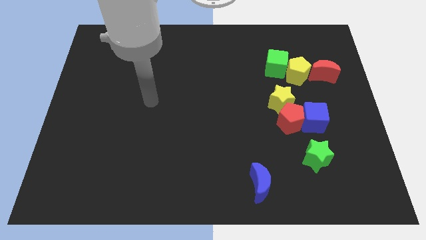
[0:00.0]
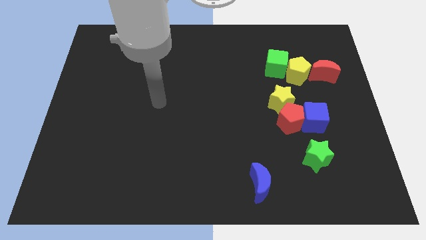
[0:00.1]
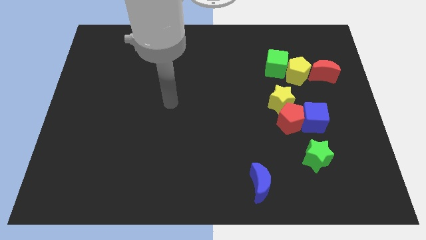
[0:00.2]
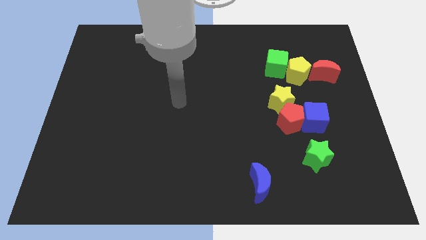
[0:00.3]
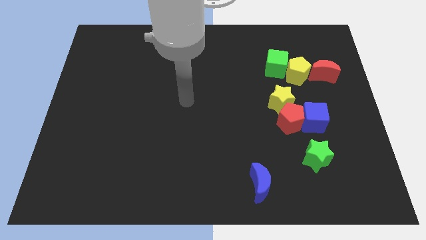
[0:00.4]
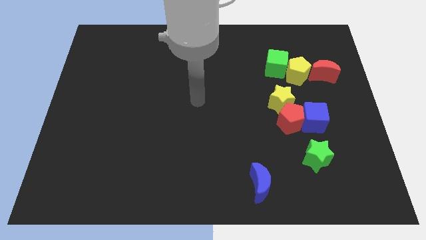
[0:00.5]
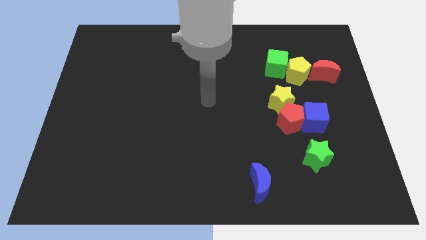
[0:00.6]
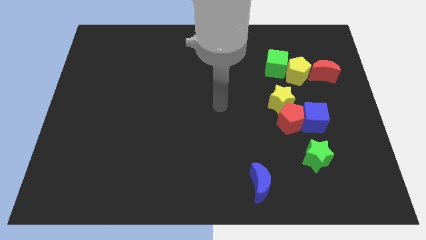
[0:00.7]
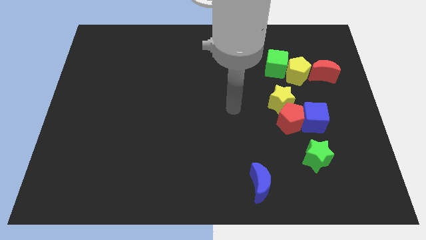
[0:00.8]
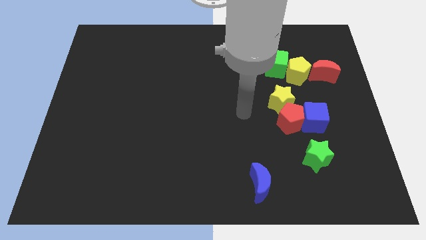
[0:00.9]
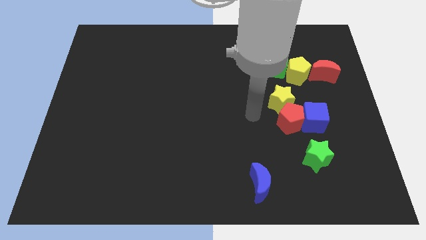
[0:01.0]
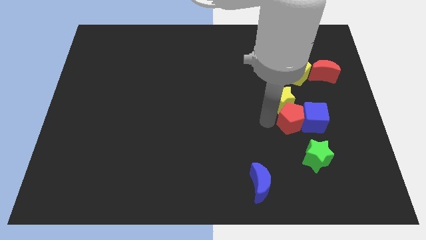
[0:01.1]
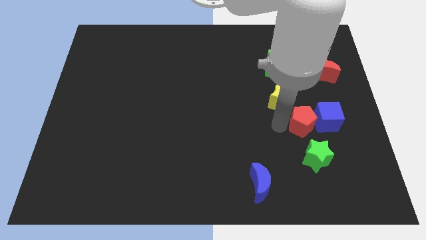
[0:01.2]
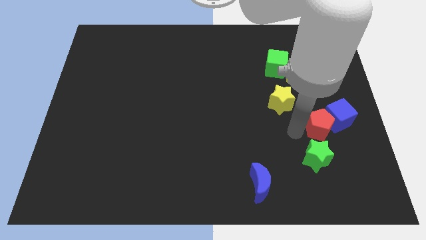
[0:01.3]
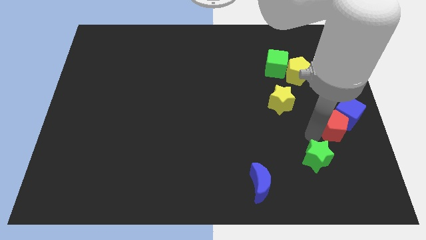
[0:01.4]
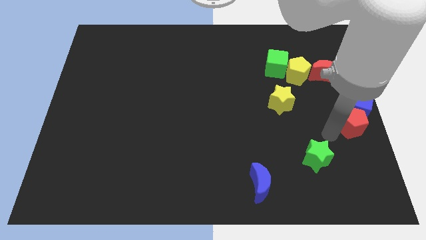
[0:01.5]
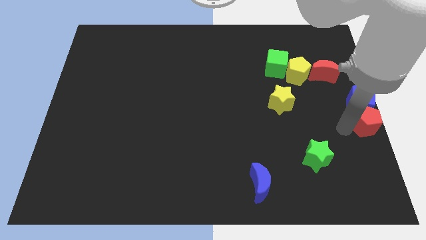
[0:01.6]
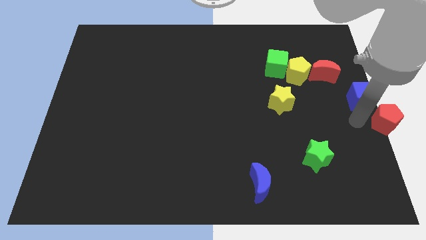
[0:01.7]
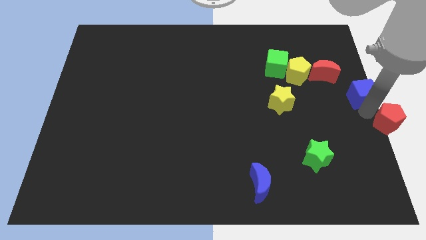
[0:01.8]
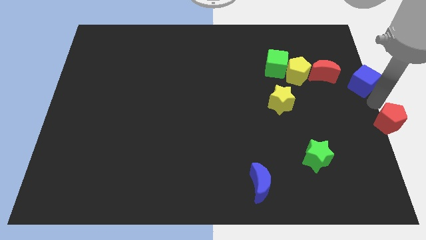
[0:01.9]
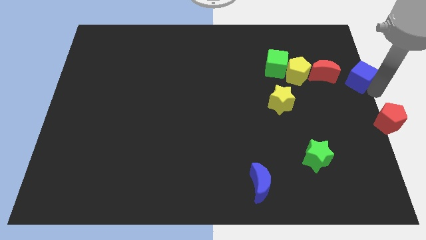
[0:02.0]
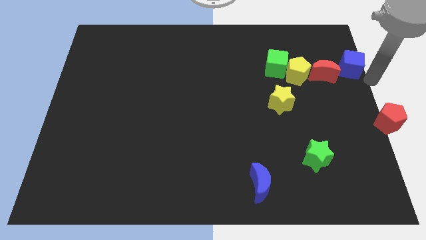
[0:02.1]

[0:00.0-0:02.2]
push the blue cube up a little

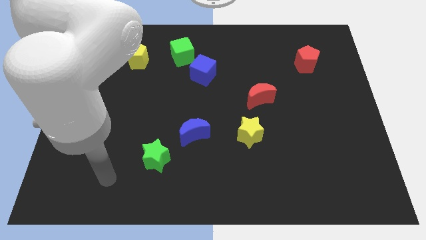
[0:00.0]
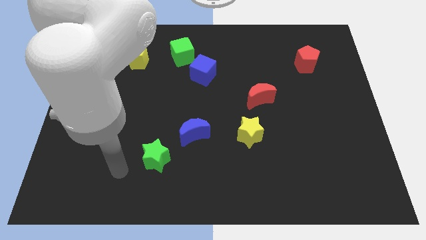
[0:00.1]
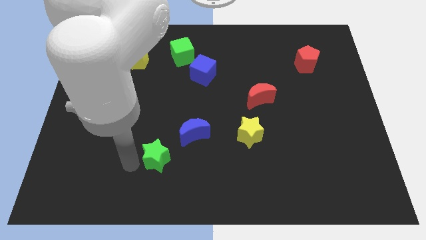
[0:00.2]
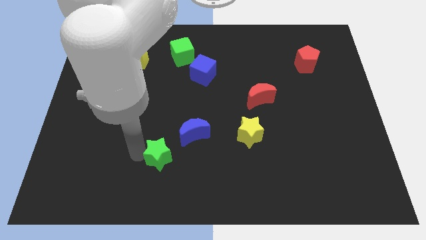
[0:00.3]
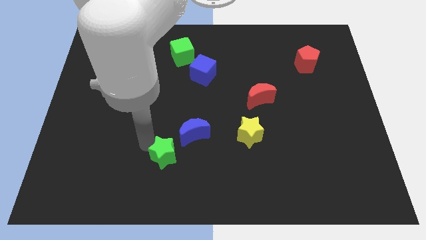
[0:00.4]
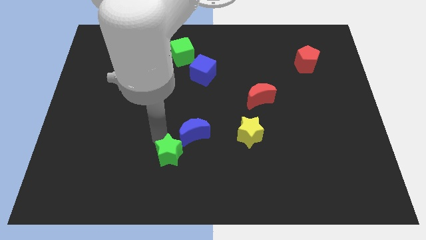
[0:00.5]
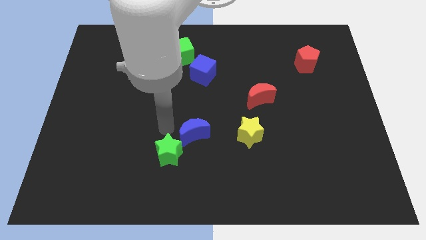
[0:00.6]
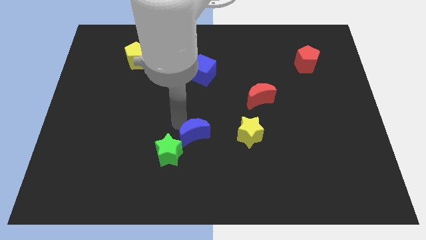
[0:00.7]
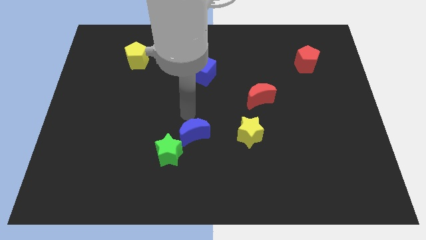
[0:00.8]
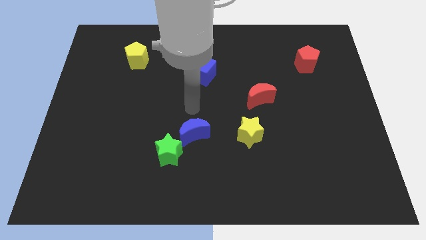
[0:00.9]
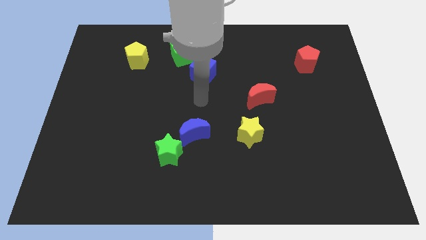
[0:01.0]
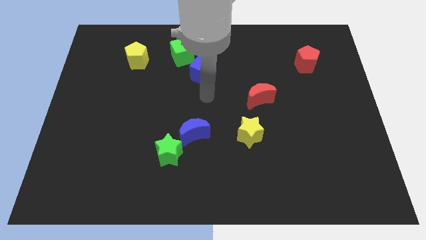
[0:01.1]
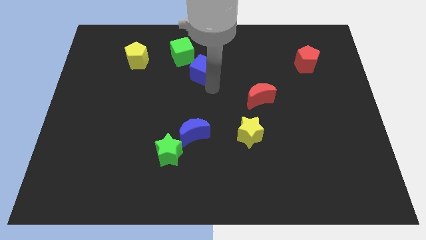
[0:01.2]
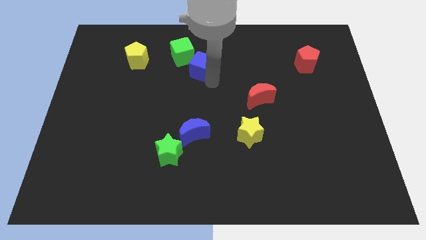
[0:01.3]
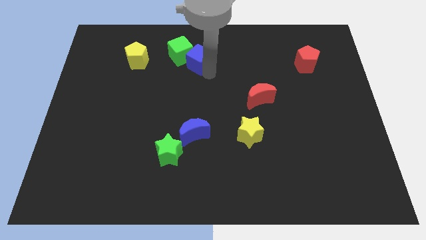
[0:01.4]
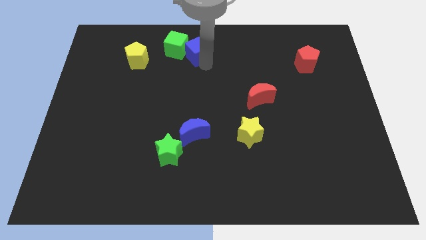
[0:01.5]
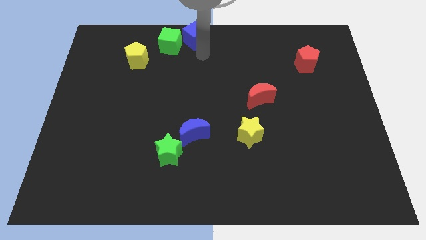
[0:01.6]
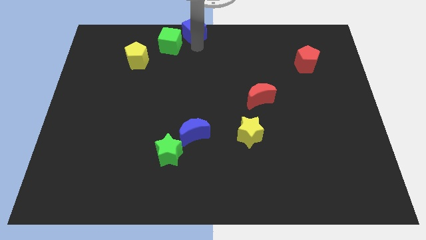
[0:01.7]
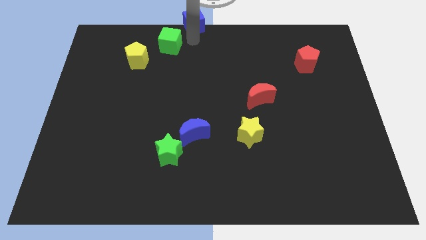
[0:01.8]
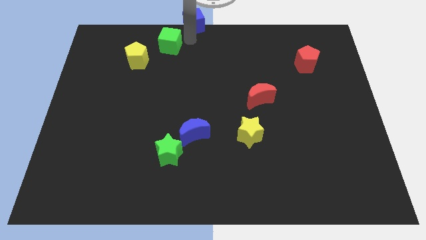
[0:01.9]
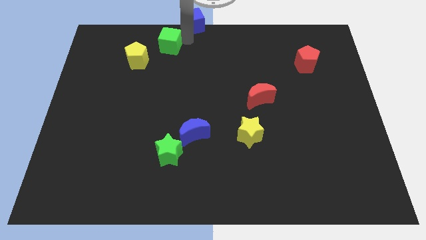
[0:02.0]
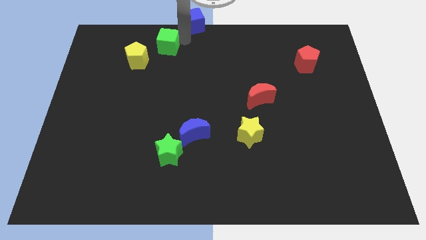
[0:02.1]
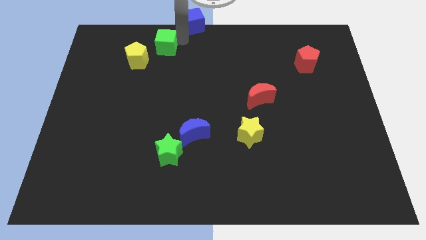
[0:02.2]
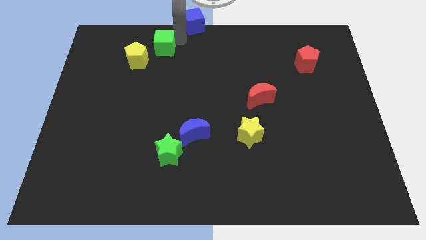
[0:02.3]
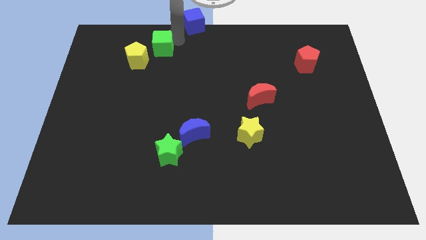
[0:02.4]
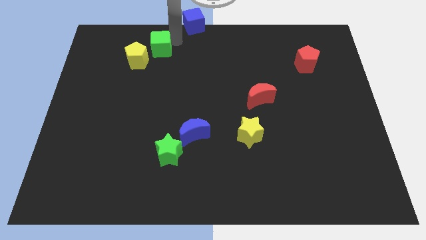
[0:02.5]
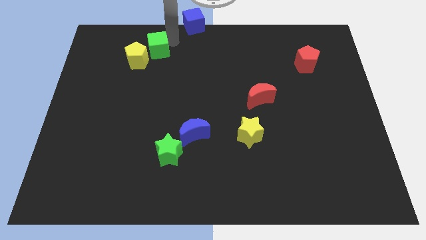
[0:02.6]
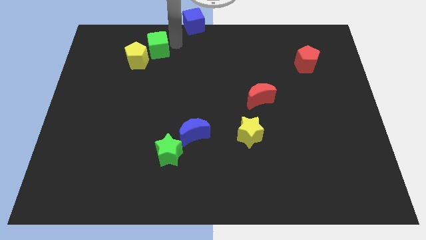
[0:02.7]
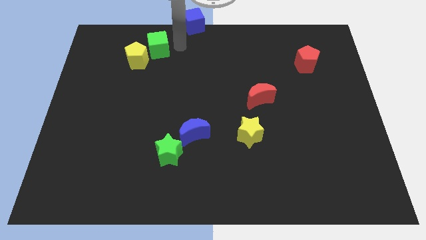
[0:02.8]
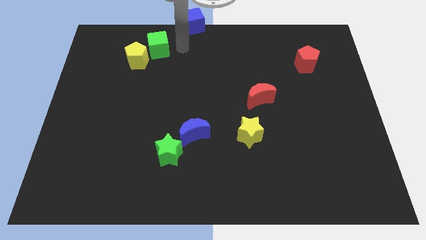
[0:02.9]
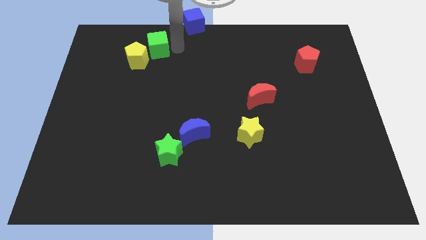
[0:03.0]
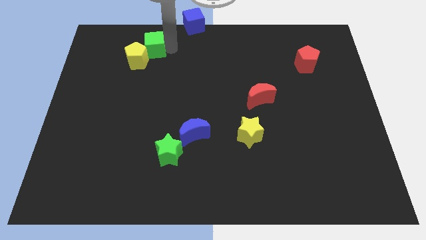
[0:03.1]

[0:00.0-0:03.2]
slide the green cube to the left a little bit

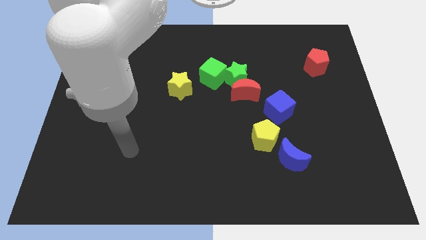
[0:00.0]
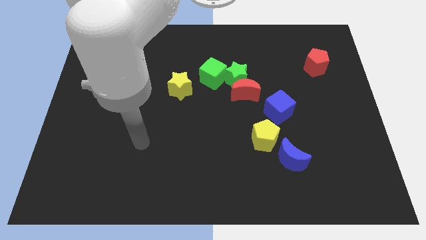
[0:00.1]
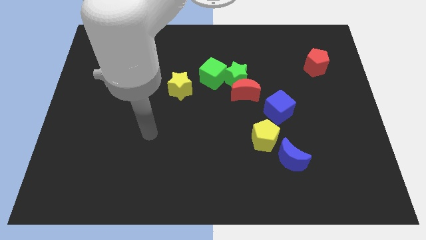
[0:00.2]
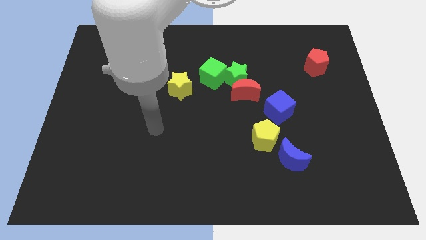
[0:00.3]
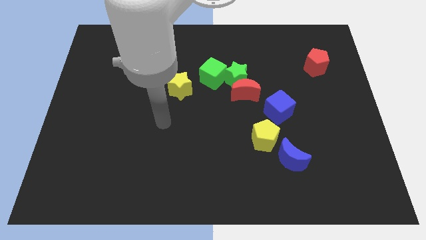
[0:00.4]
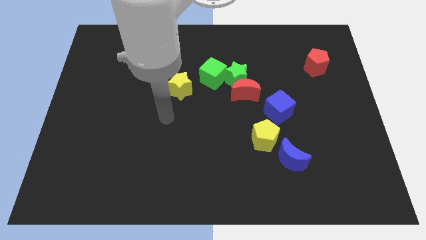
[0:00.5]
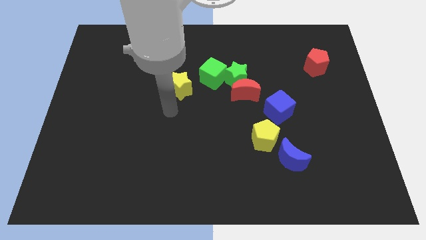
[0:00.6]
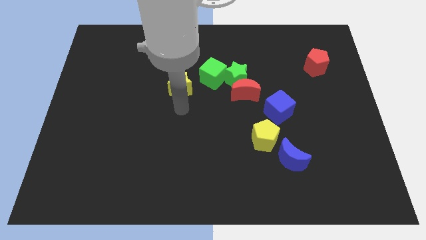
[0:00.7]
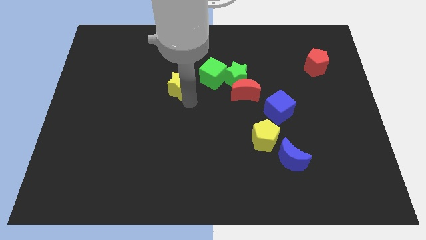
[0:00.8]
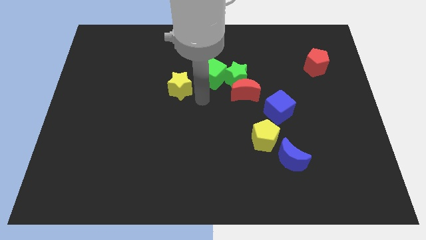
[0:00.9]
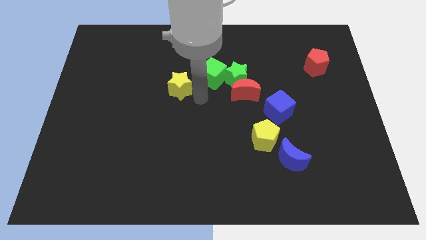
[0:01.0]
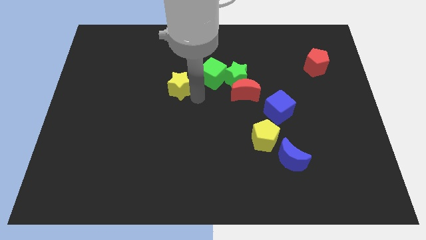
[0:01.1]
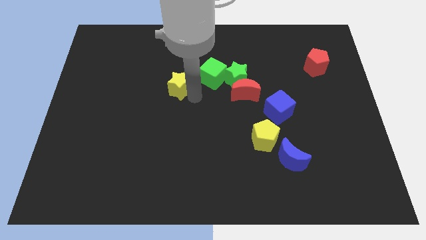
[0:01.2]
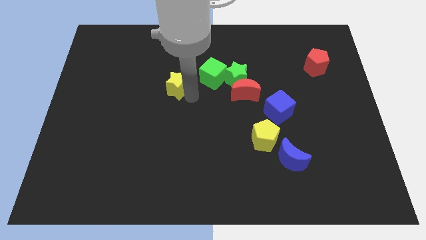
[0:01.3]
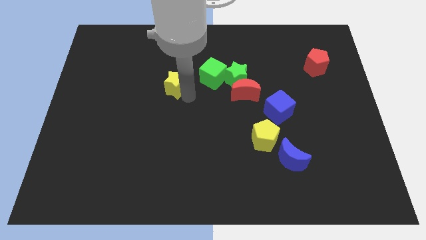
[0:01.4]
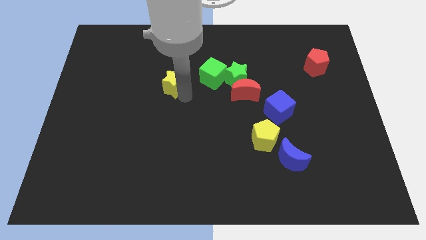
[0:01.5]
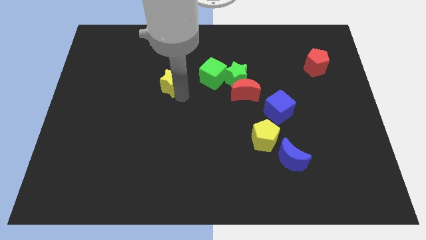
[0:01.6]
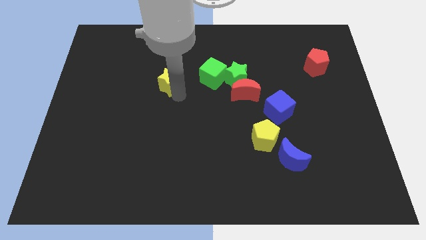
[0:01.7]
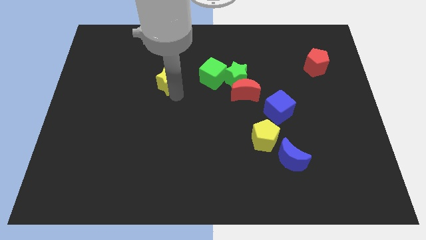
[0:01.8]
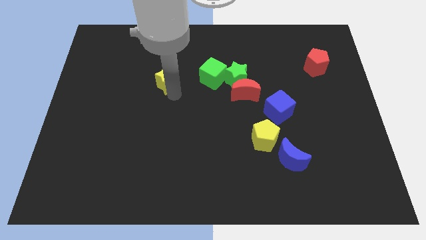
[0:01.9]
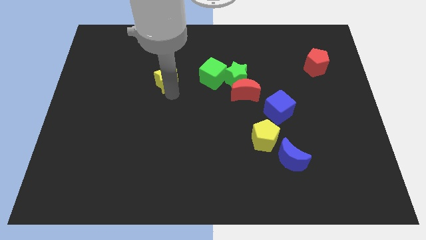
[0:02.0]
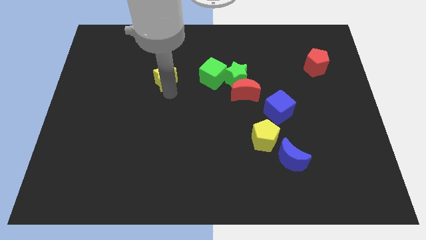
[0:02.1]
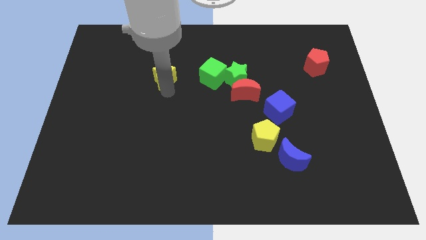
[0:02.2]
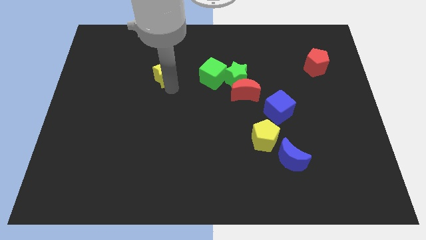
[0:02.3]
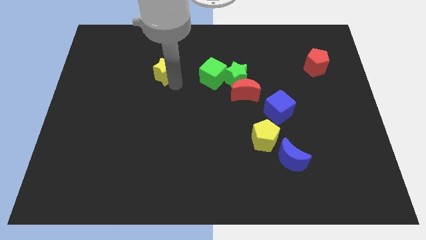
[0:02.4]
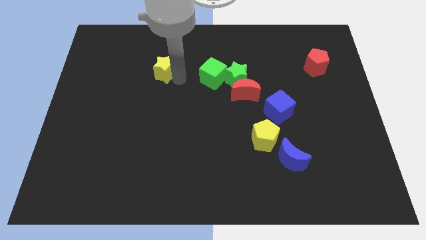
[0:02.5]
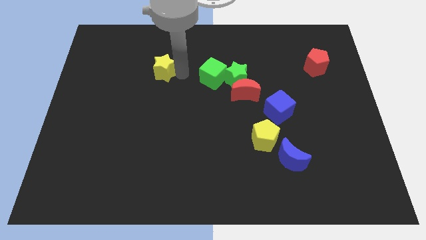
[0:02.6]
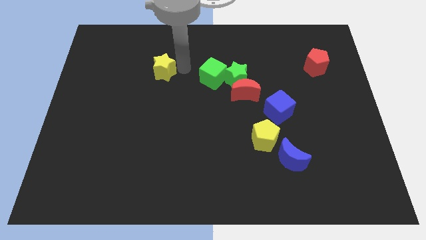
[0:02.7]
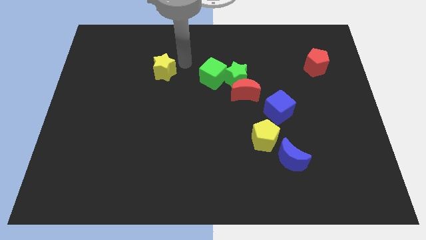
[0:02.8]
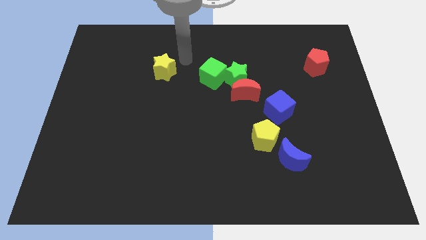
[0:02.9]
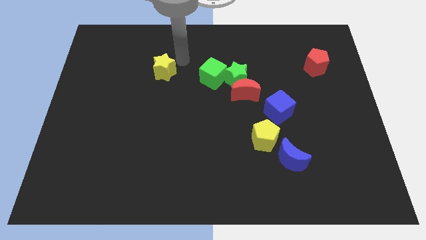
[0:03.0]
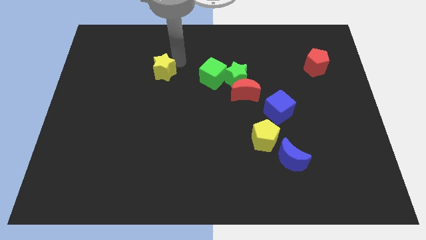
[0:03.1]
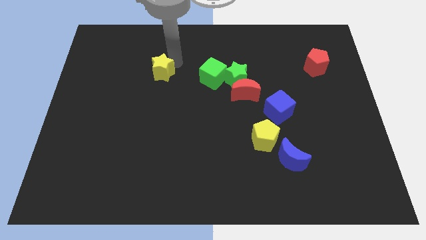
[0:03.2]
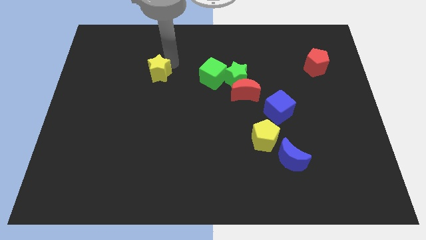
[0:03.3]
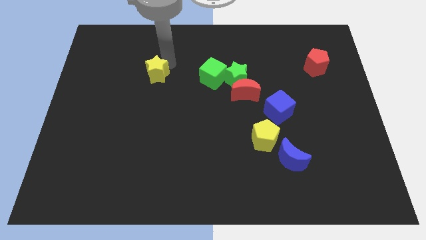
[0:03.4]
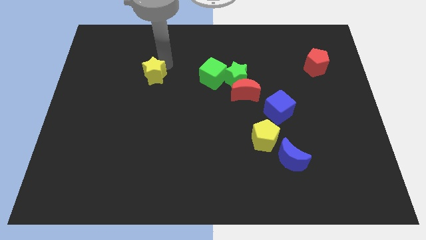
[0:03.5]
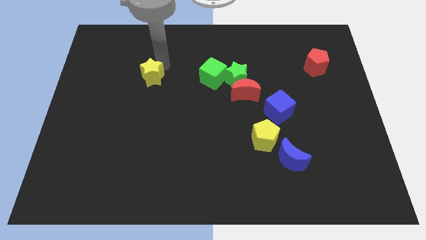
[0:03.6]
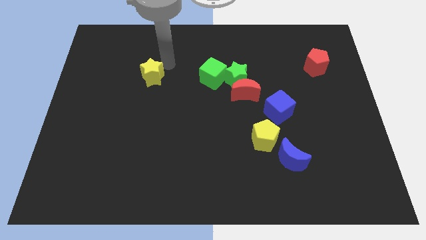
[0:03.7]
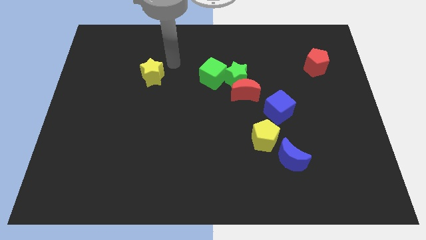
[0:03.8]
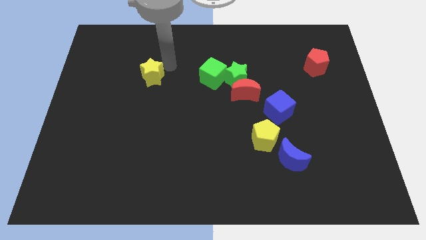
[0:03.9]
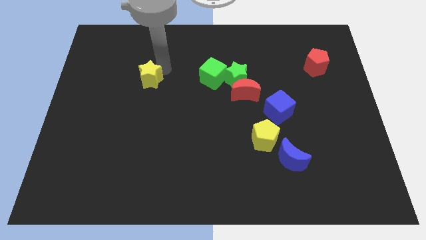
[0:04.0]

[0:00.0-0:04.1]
slightly move the yellow star to the left
